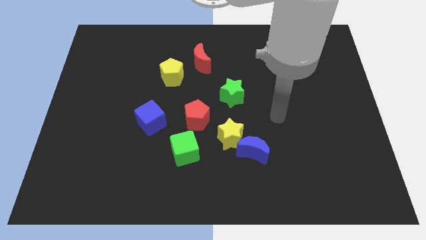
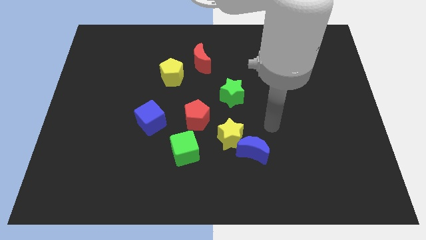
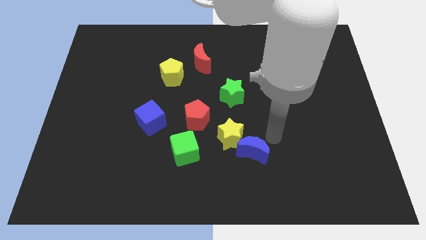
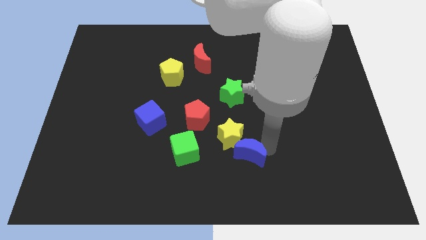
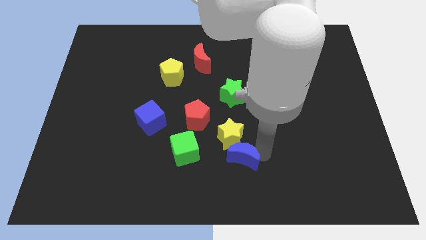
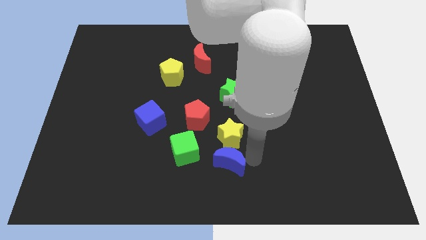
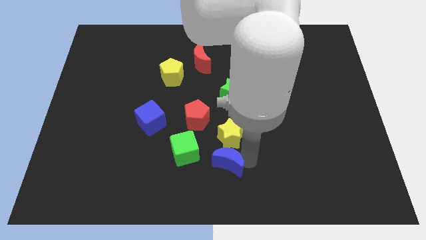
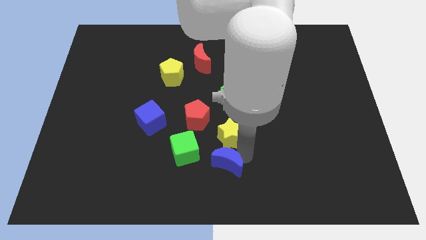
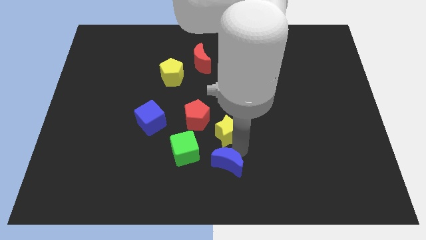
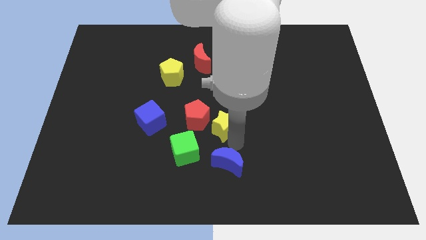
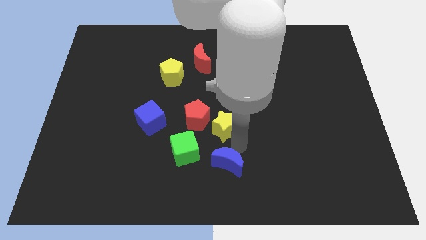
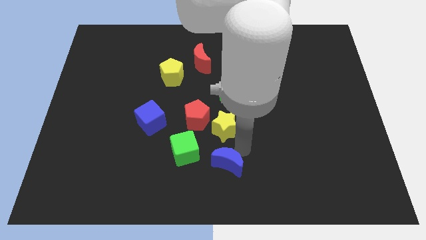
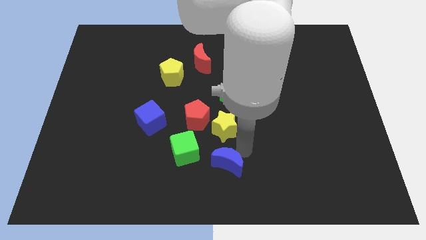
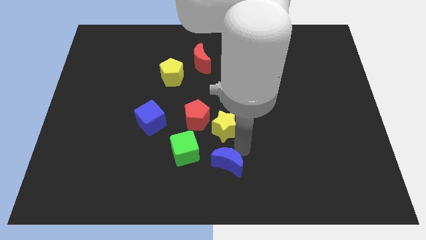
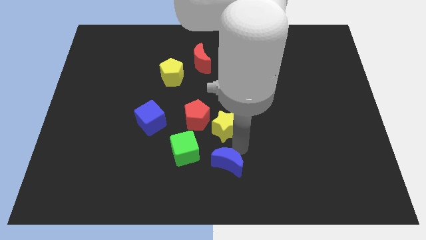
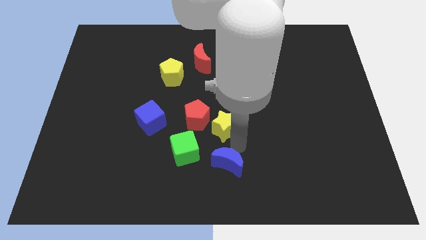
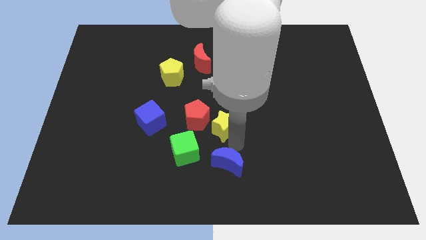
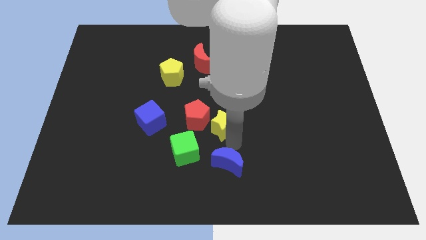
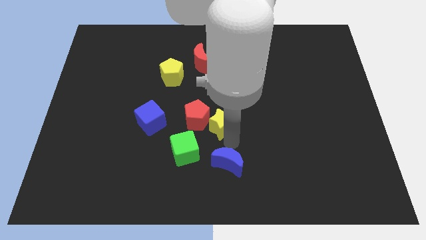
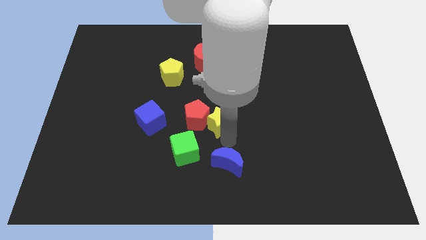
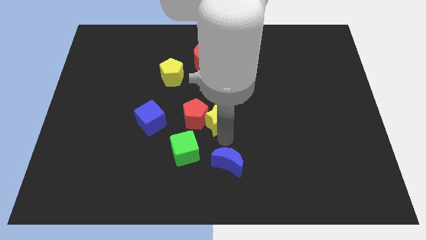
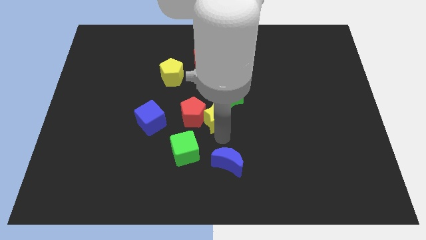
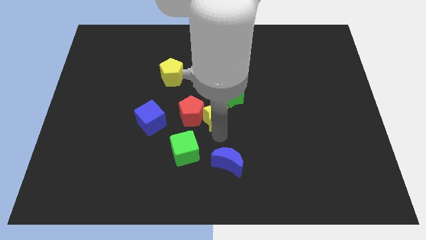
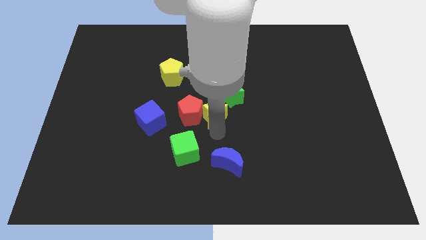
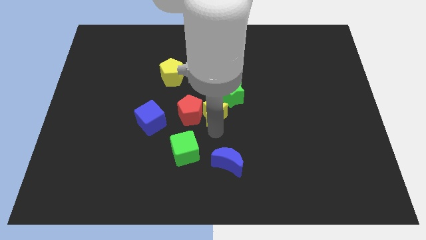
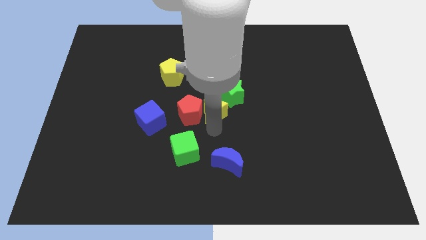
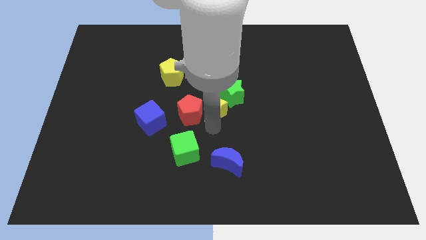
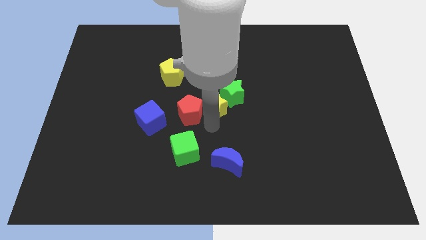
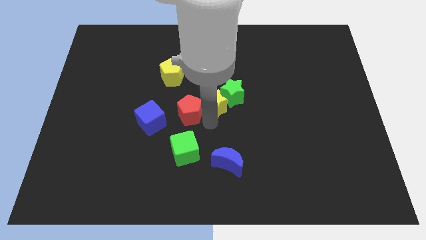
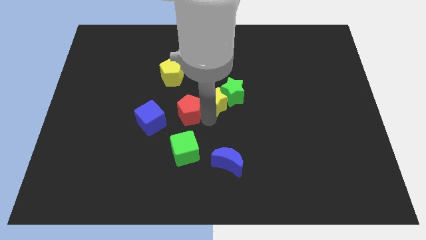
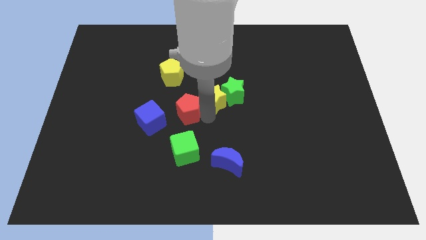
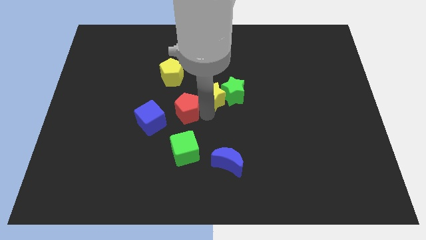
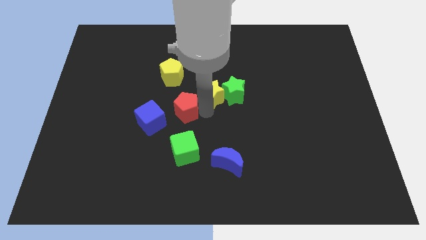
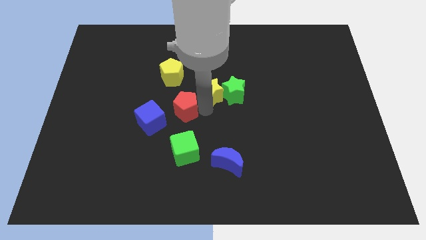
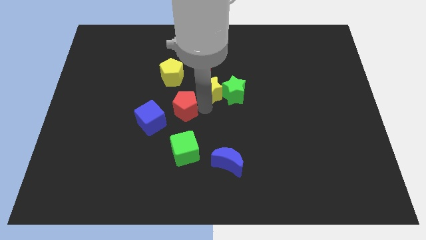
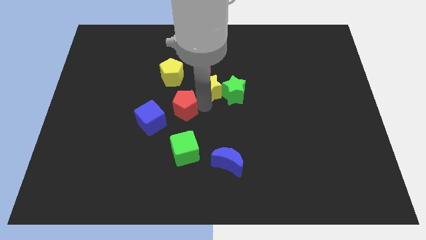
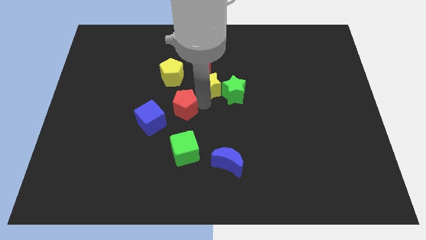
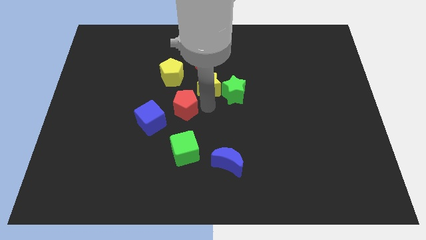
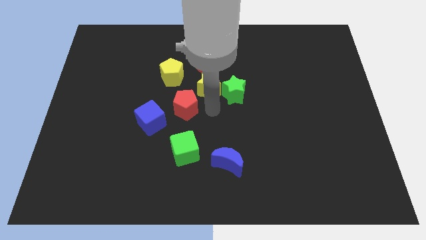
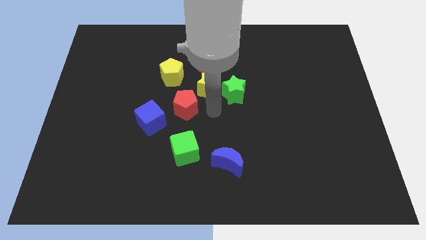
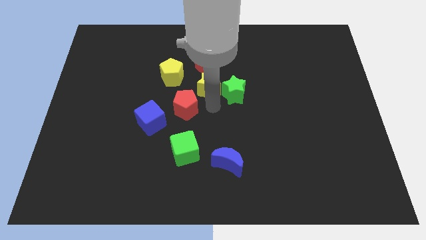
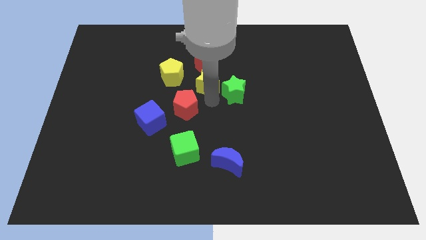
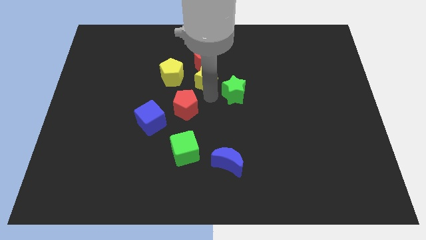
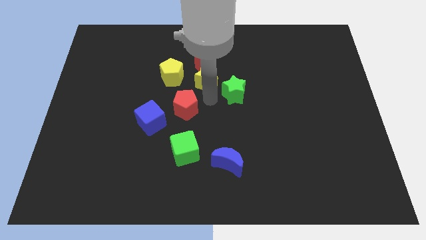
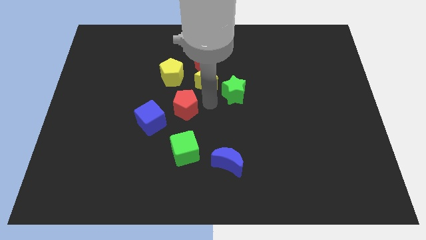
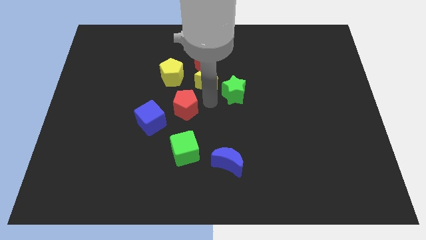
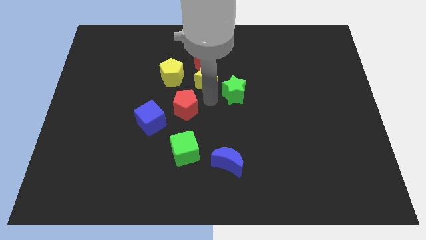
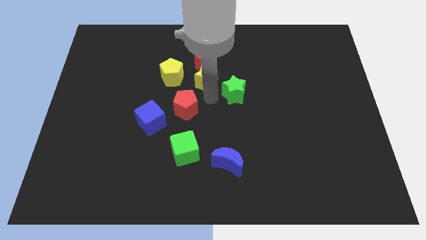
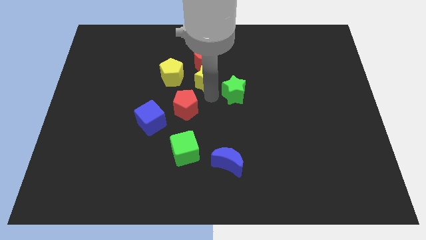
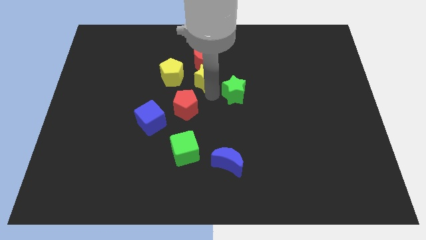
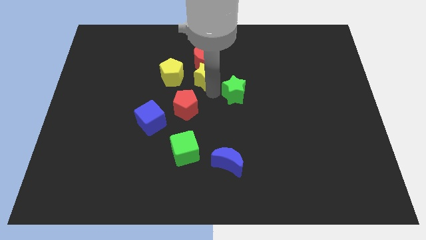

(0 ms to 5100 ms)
move the yellow star next to the red moon

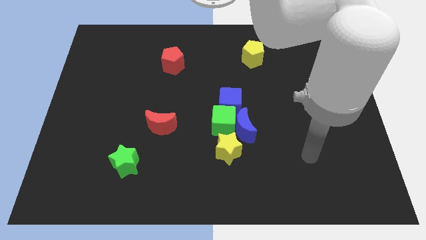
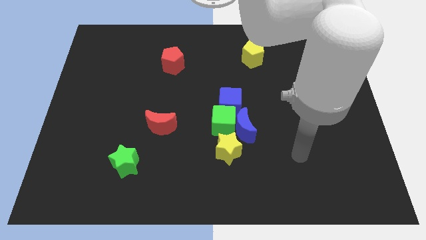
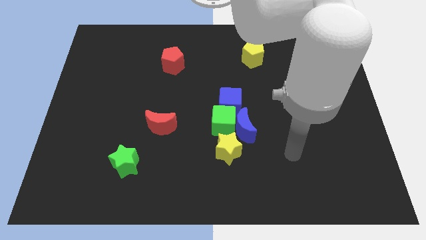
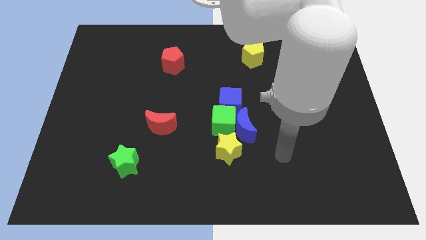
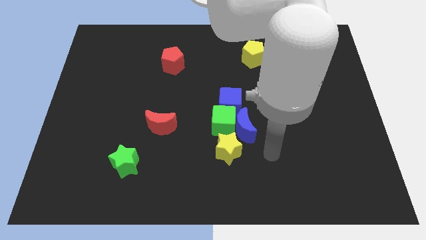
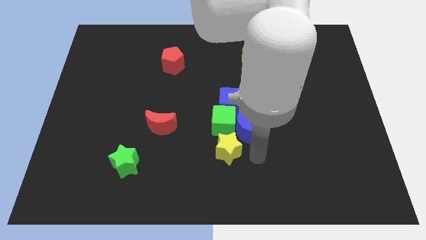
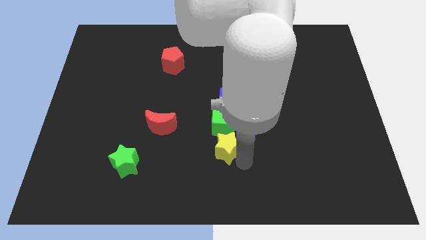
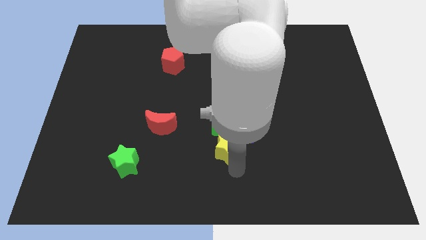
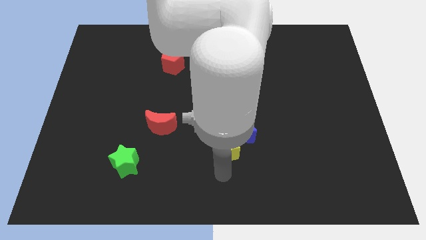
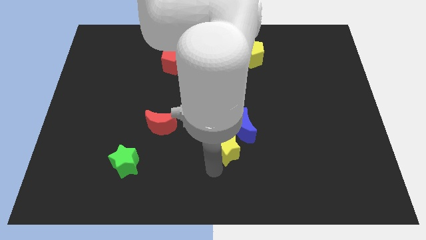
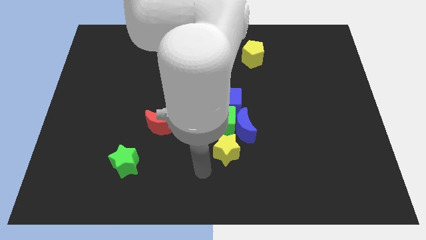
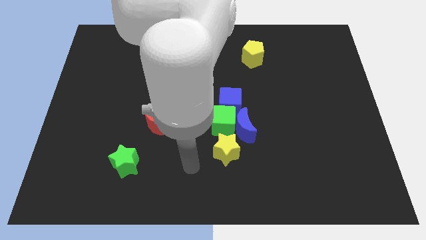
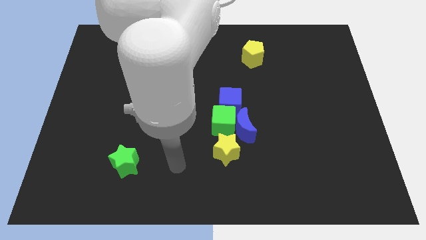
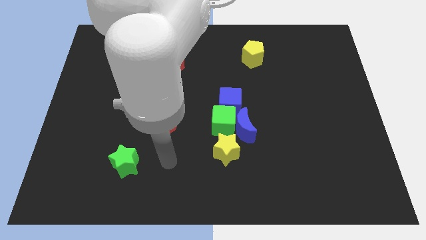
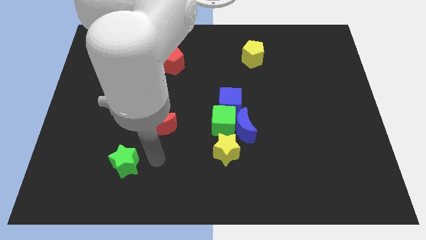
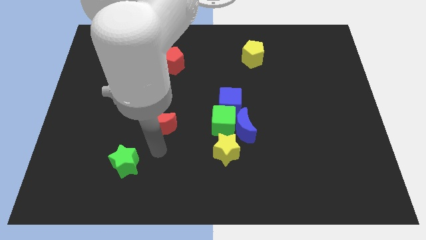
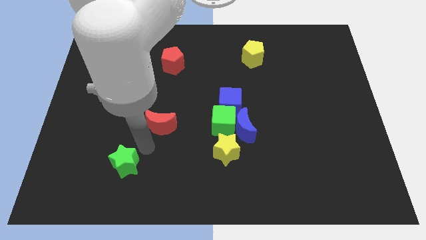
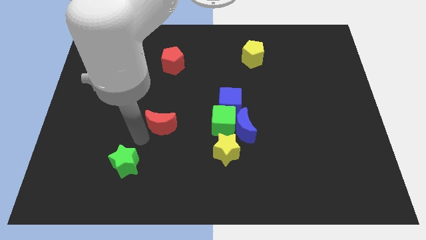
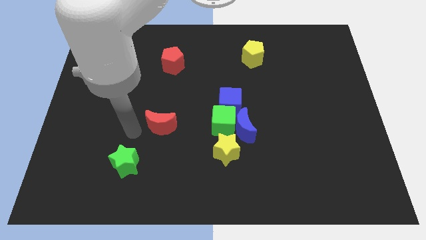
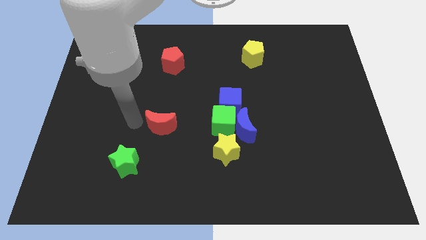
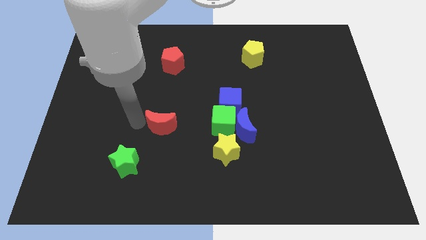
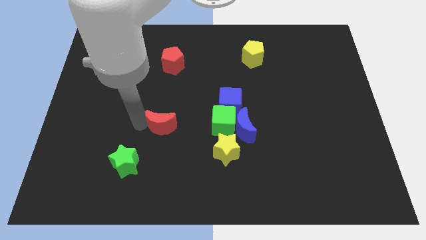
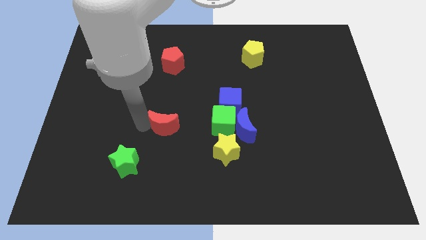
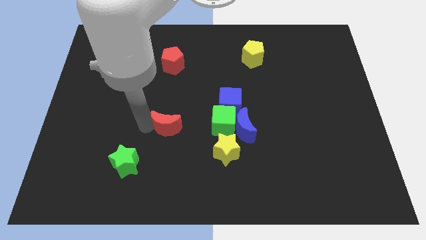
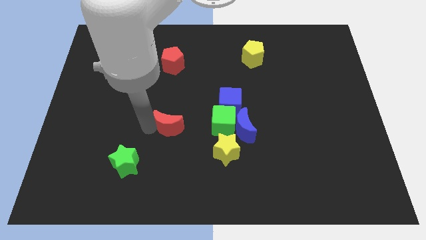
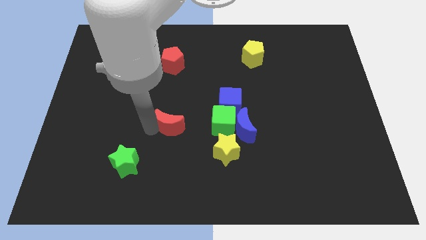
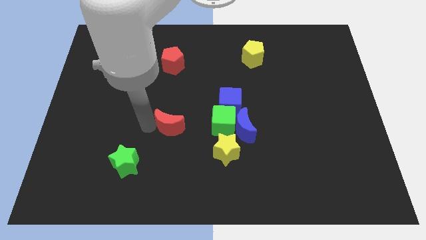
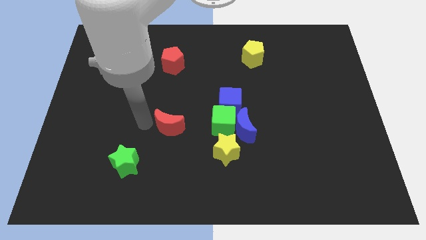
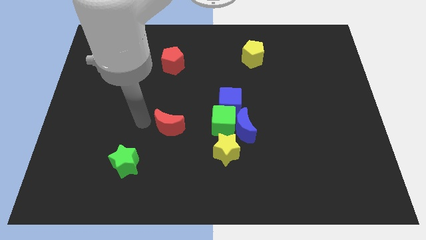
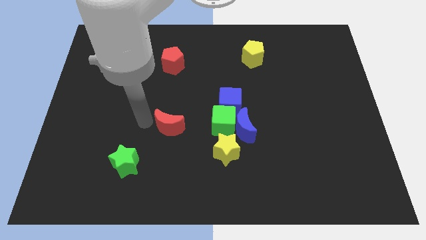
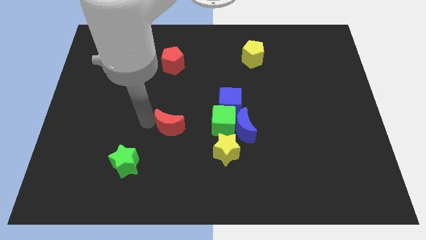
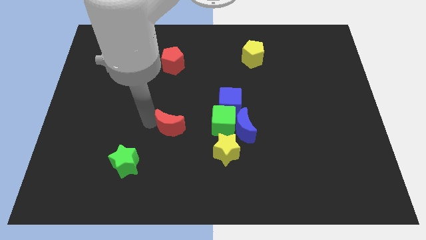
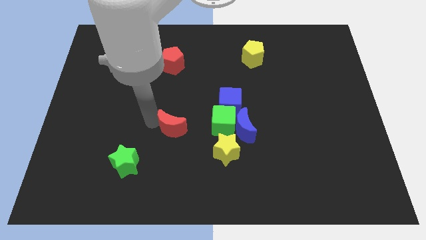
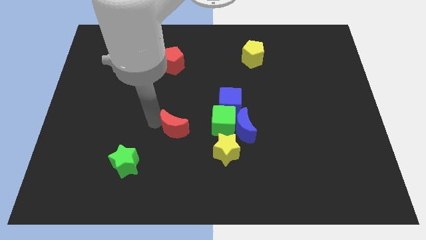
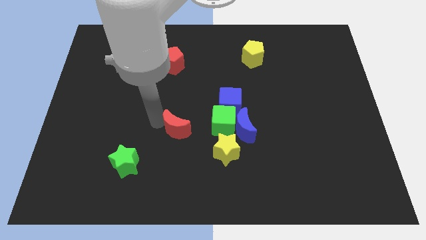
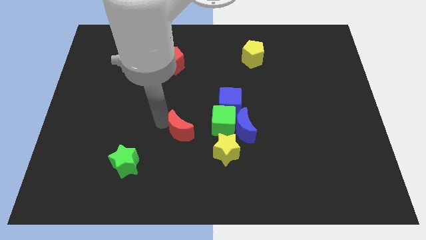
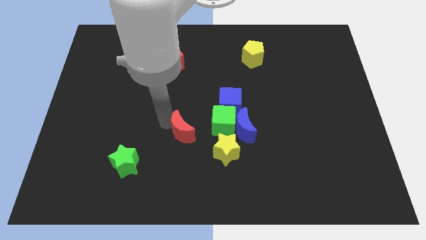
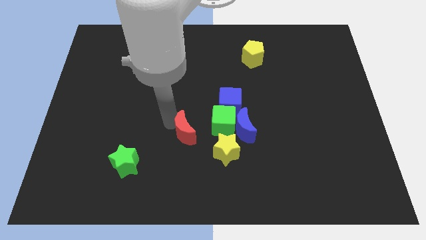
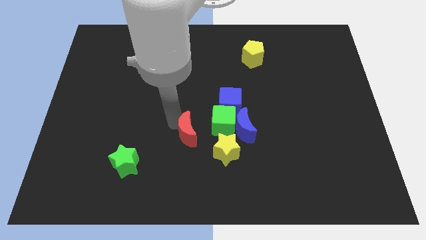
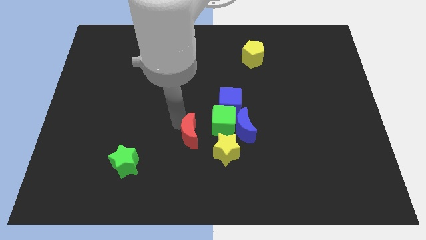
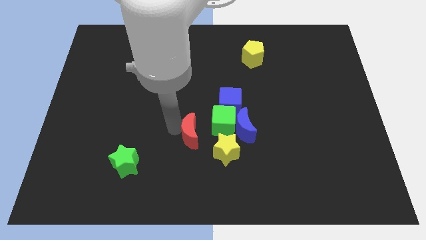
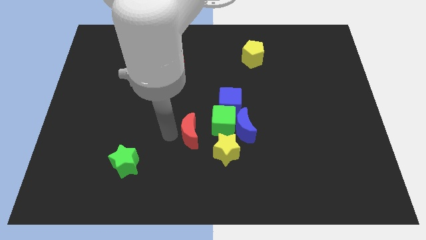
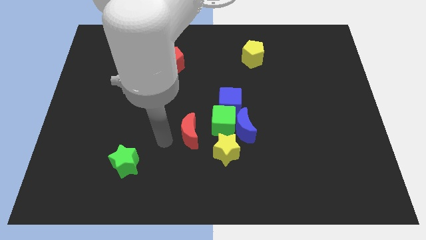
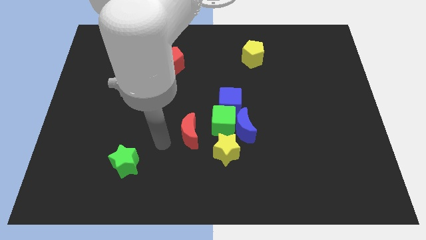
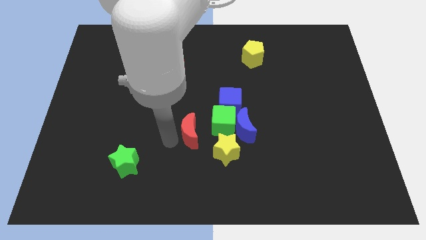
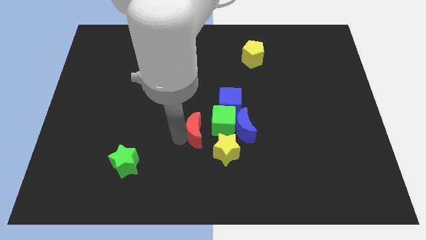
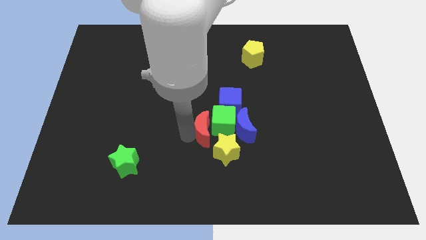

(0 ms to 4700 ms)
push the red moon towards the green cube
